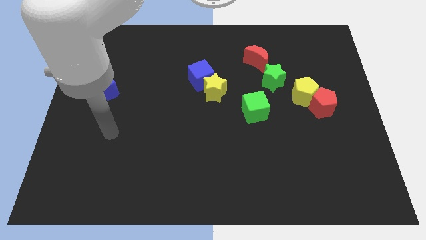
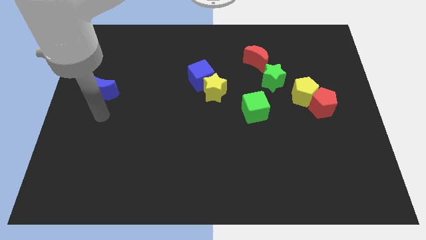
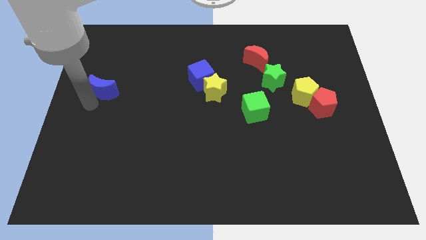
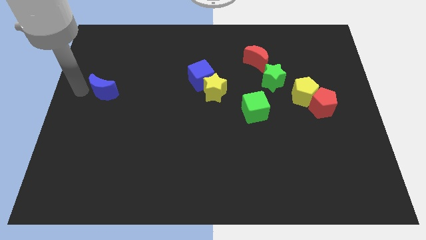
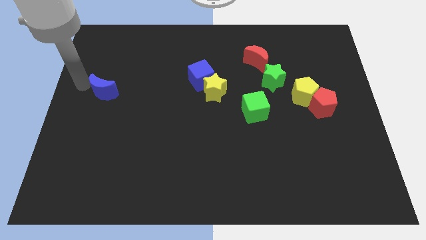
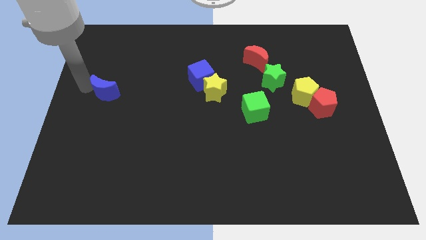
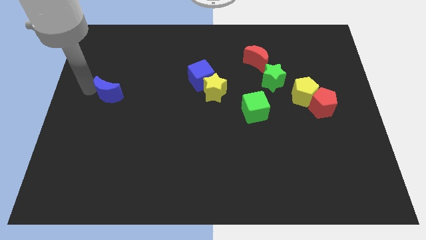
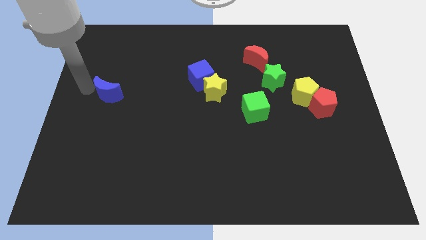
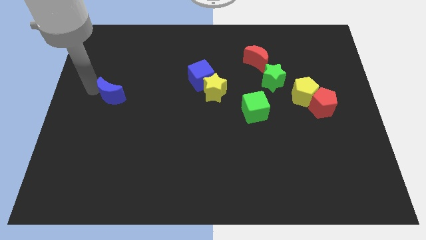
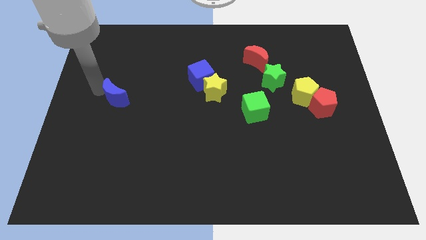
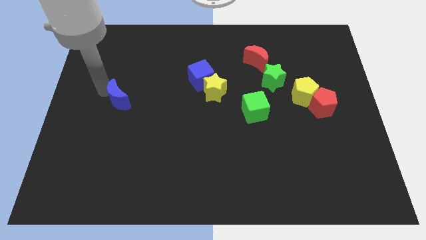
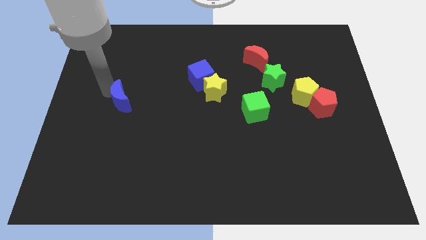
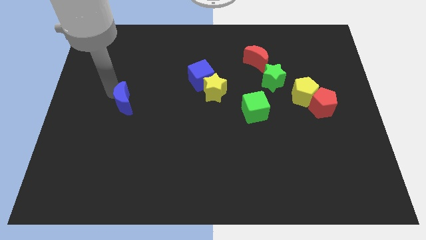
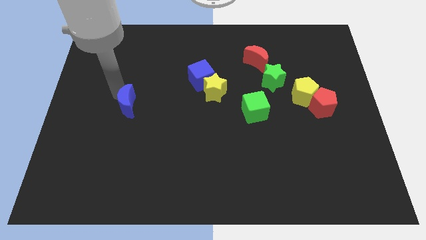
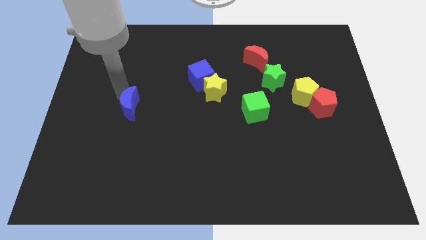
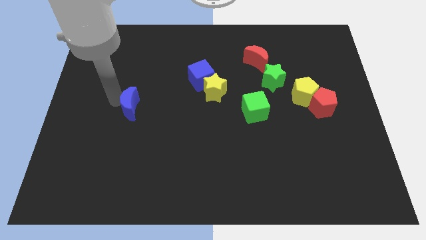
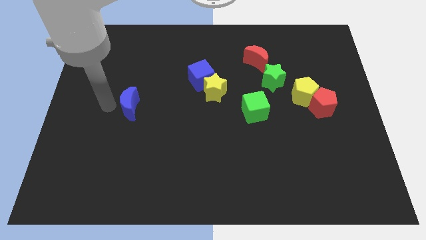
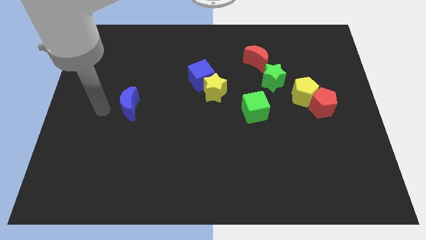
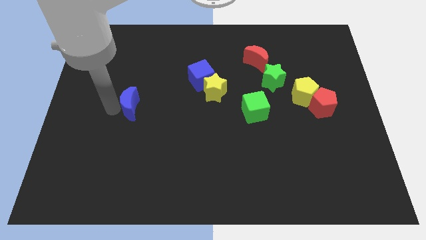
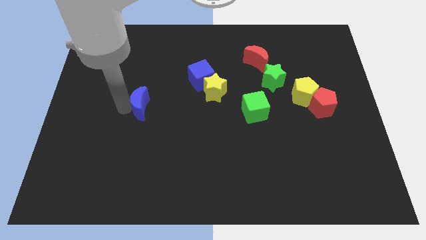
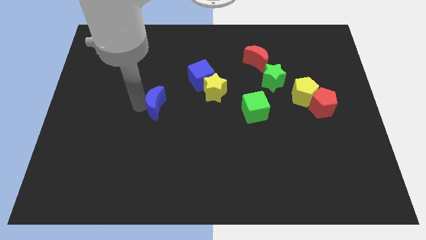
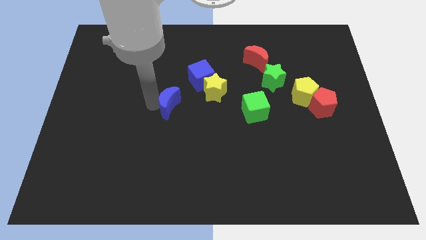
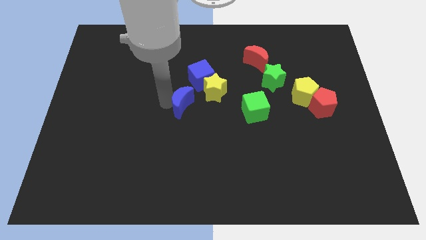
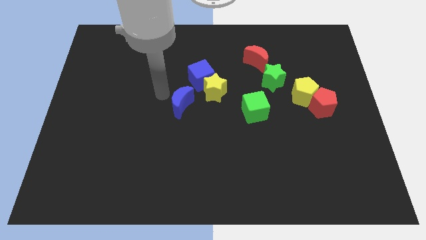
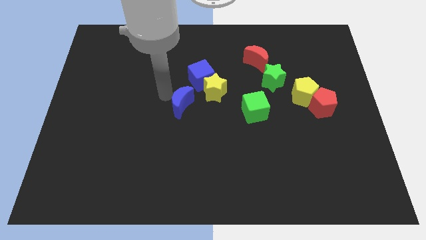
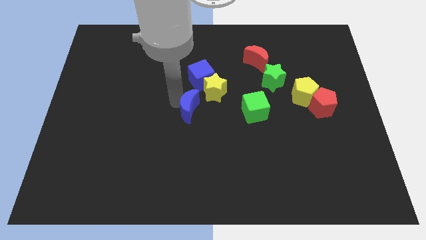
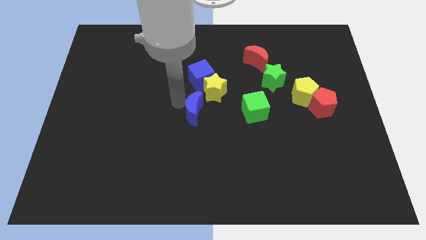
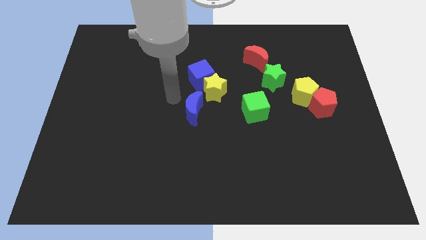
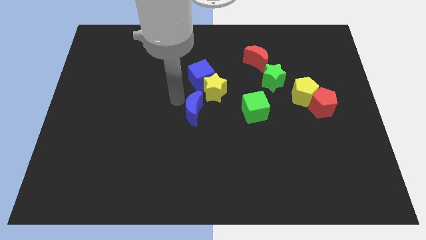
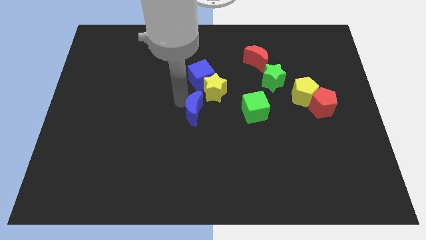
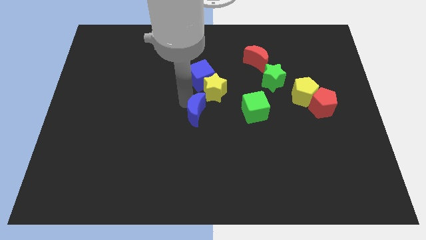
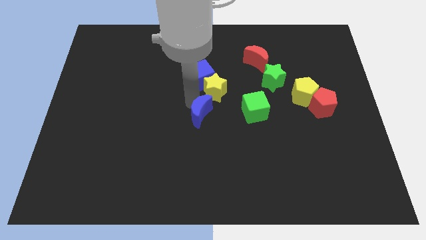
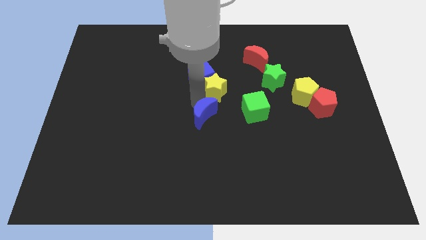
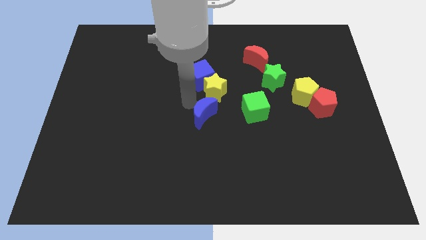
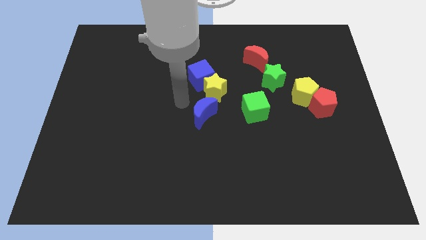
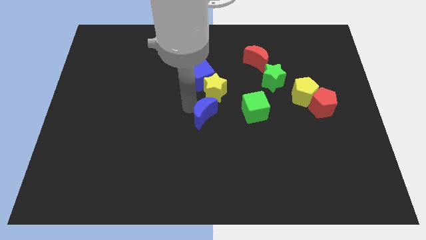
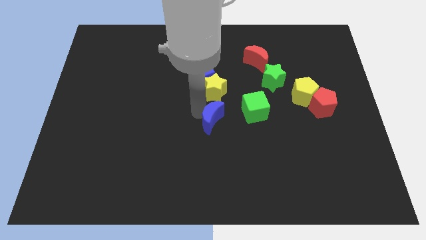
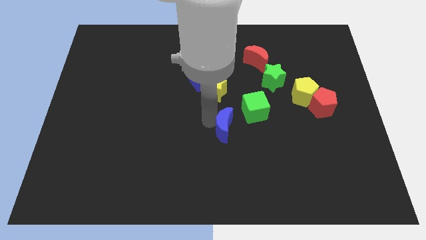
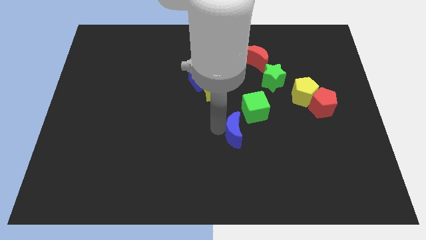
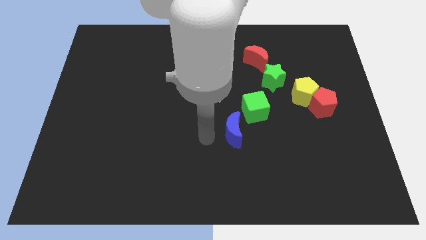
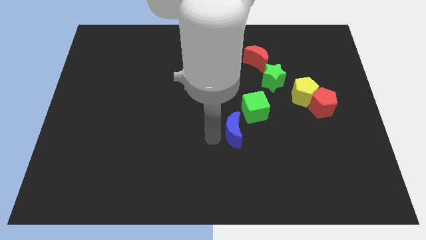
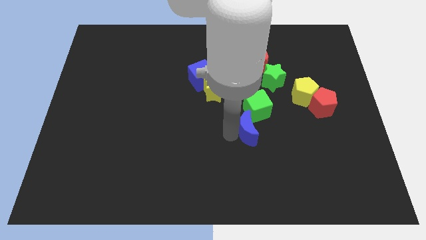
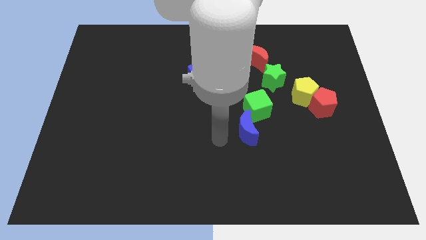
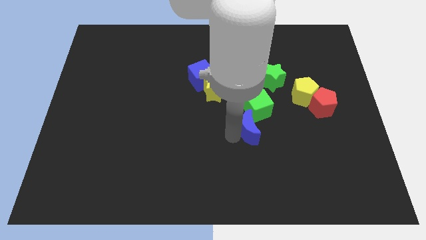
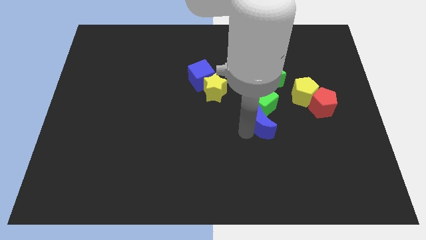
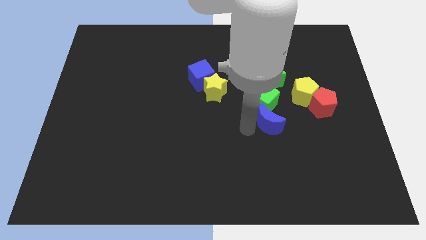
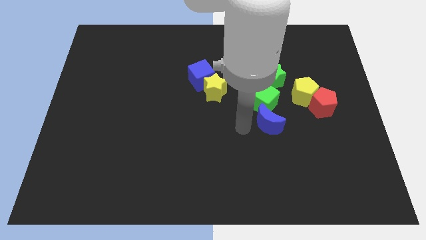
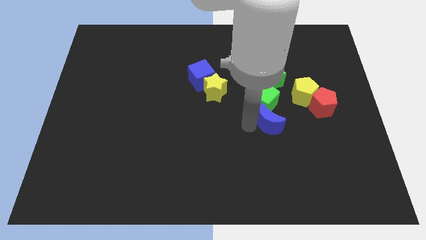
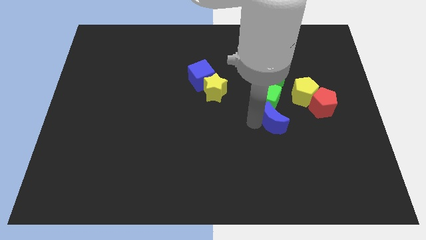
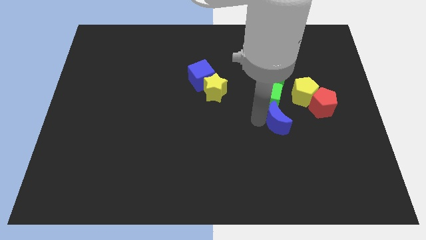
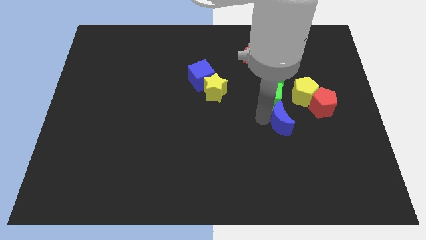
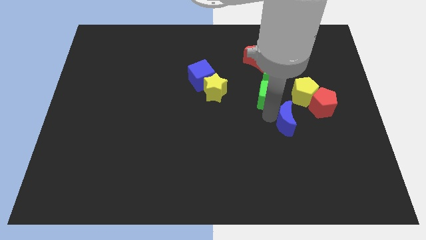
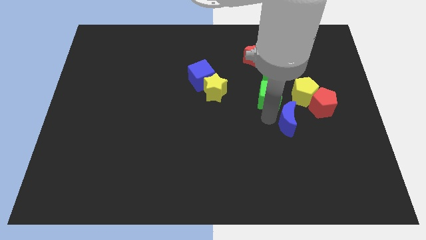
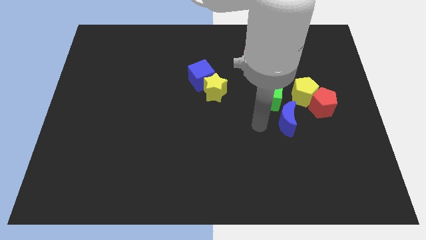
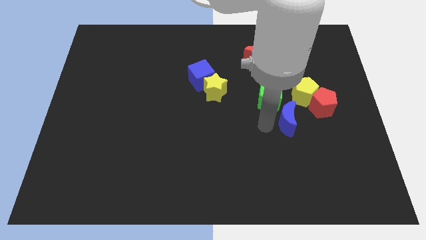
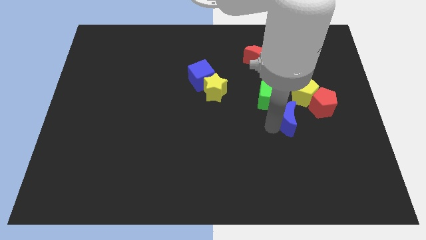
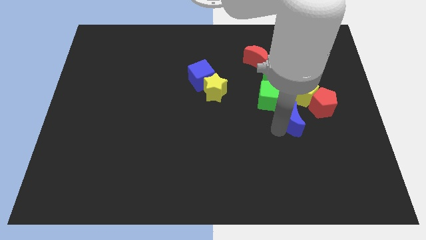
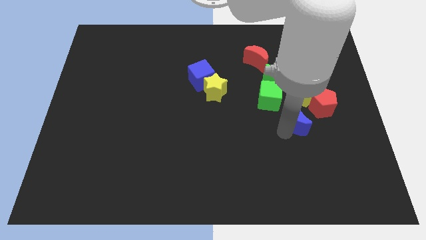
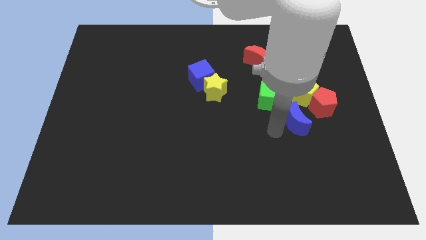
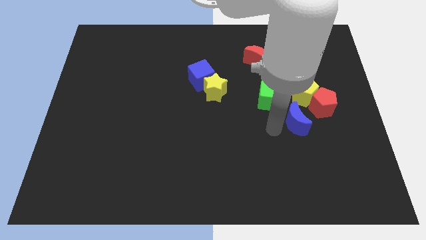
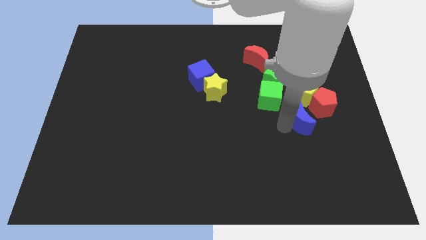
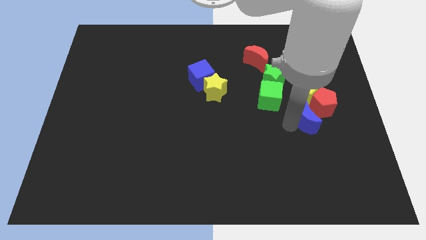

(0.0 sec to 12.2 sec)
push the blue moon next to the red pentagon

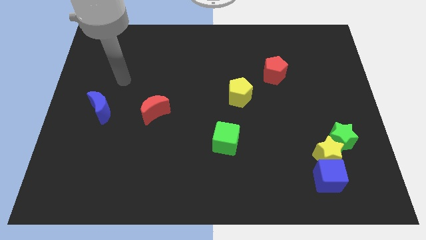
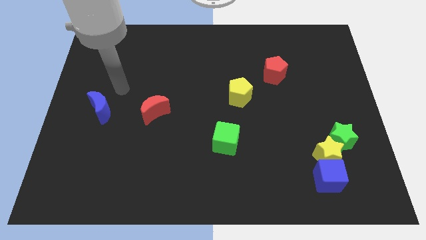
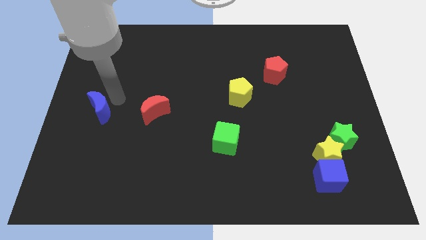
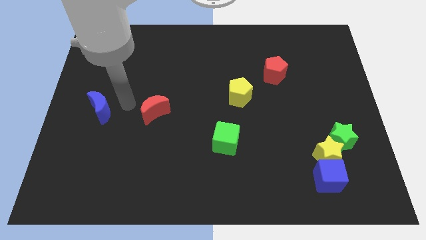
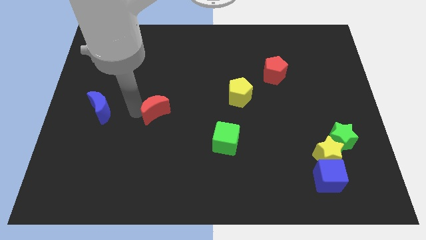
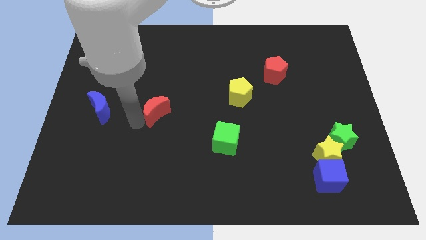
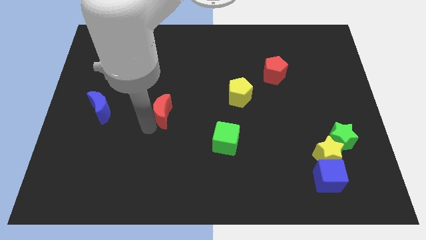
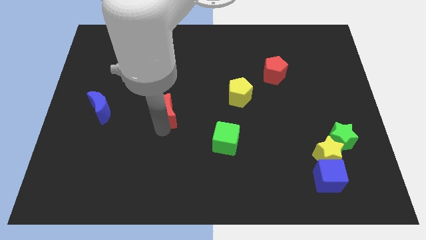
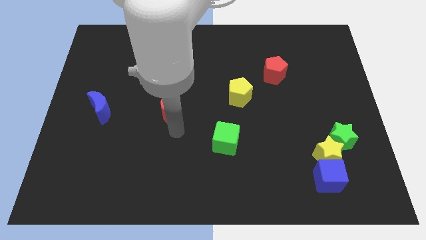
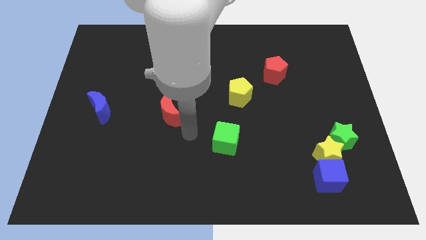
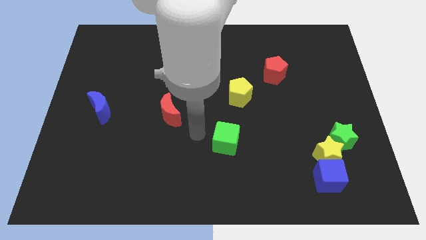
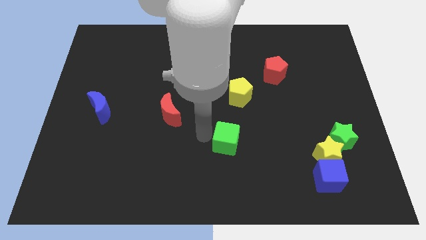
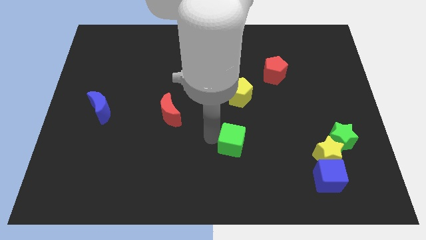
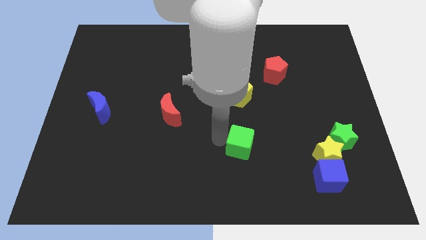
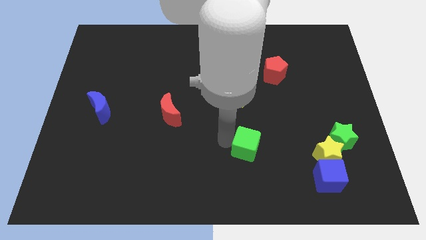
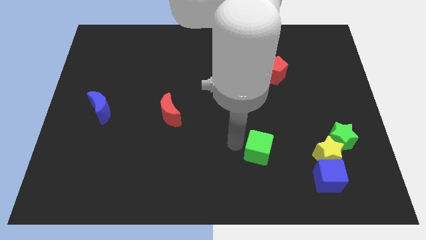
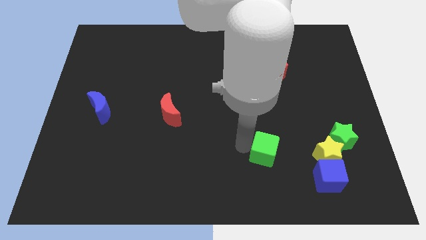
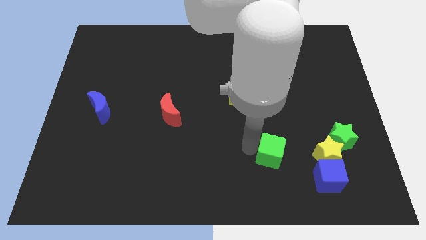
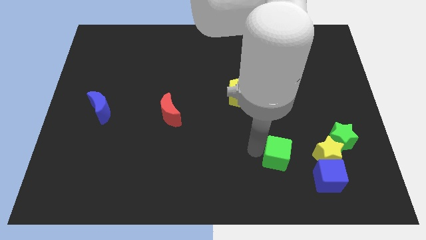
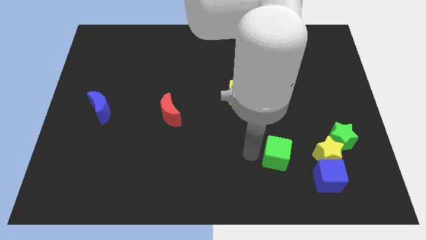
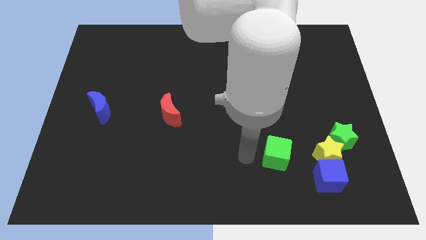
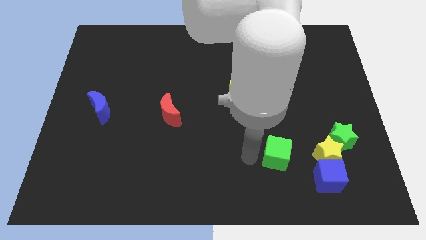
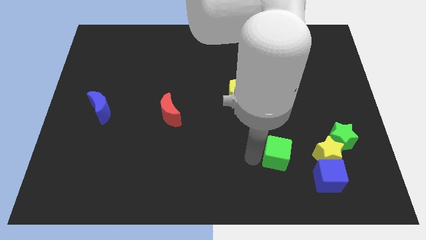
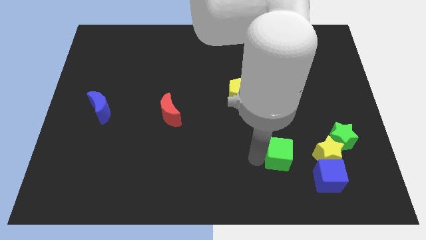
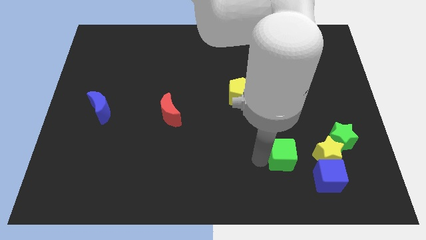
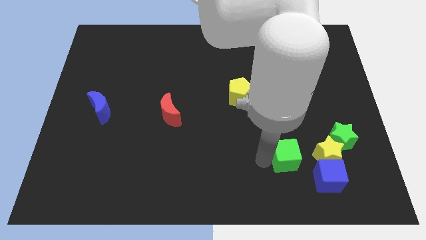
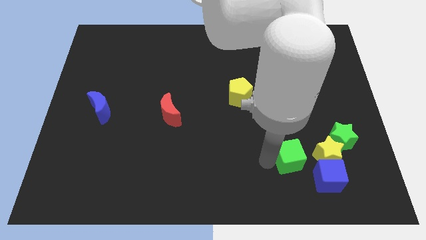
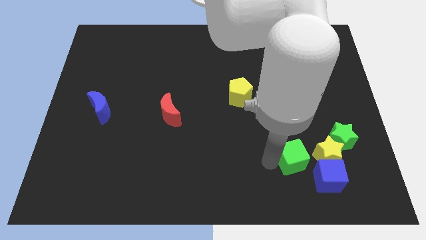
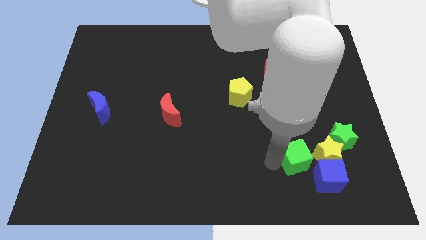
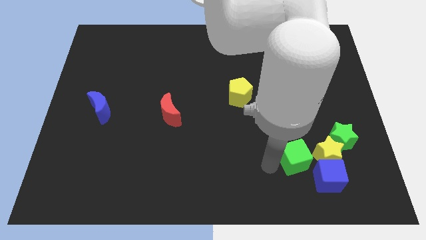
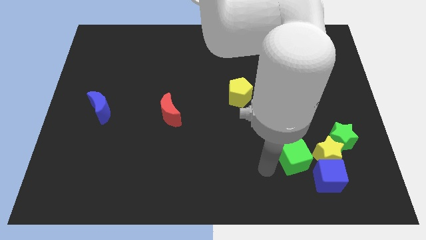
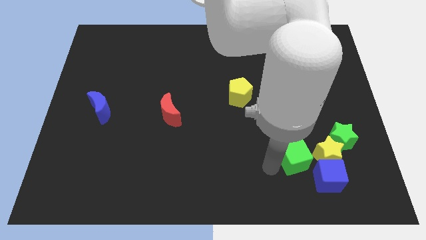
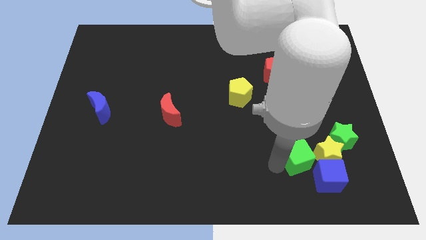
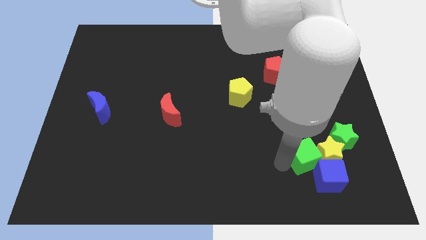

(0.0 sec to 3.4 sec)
put the green cube next to the yellow star
